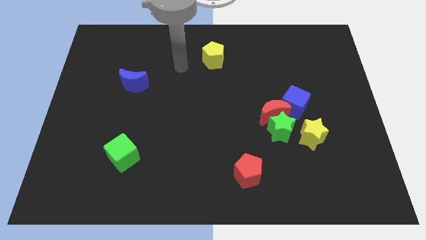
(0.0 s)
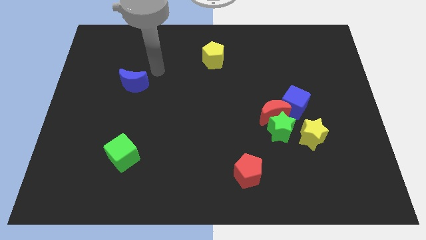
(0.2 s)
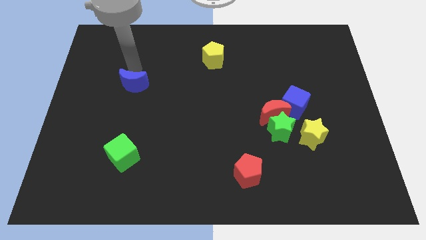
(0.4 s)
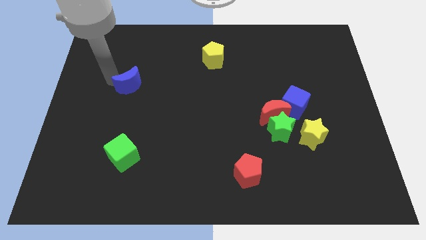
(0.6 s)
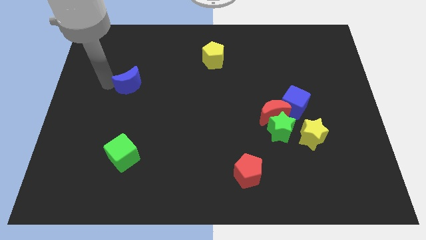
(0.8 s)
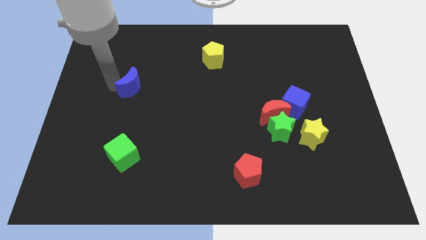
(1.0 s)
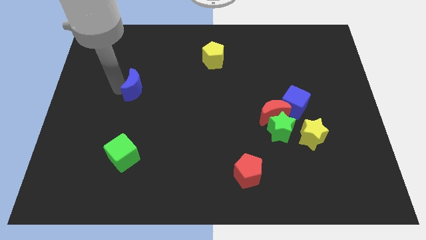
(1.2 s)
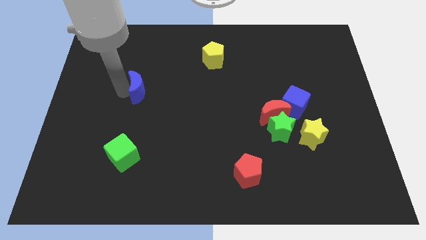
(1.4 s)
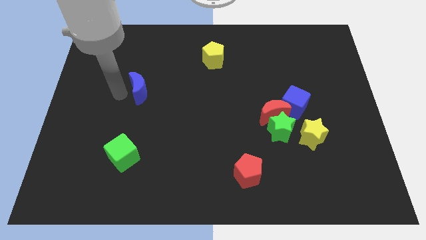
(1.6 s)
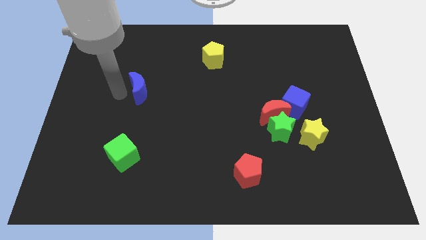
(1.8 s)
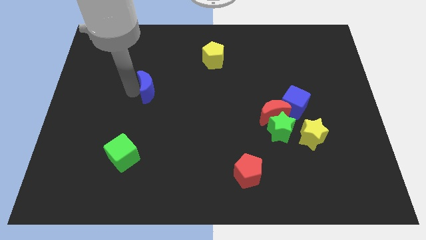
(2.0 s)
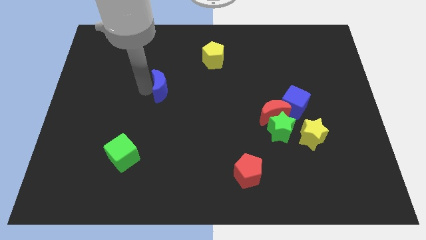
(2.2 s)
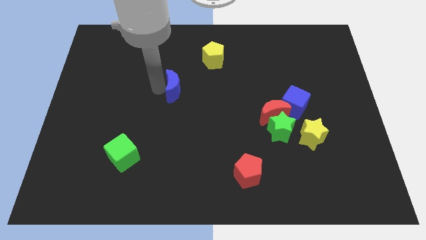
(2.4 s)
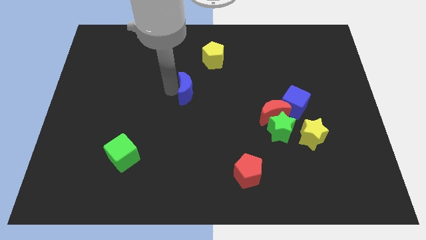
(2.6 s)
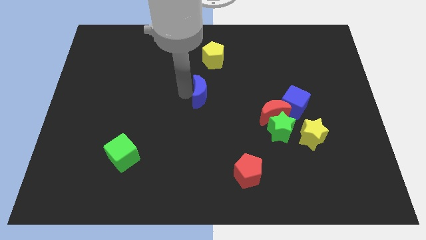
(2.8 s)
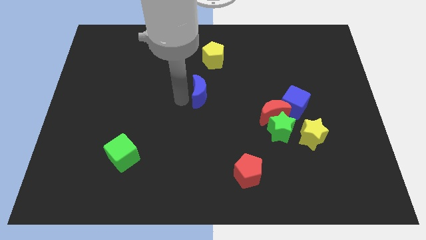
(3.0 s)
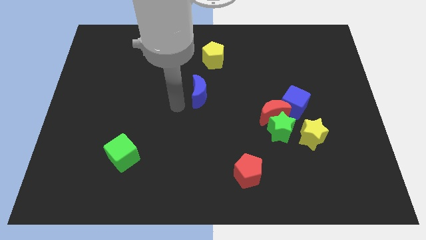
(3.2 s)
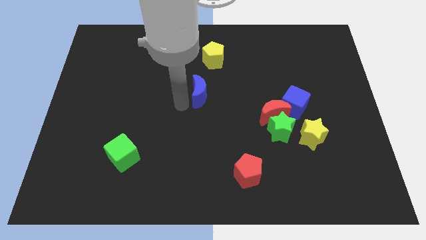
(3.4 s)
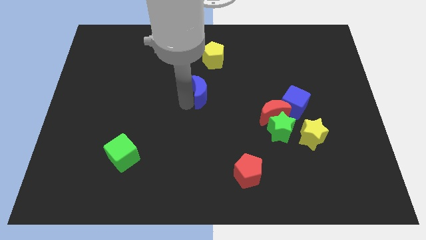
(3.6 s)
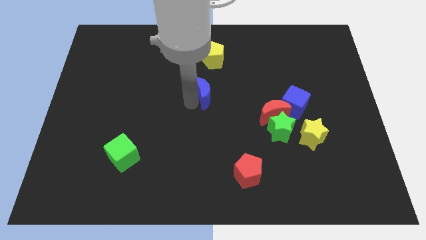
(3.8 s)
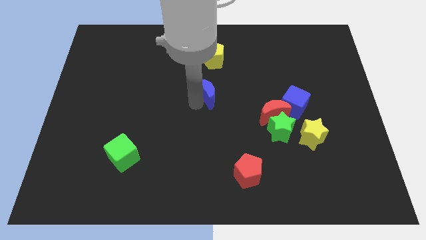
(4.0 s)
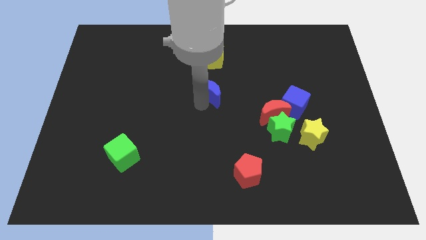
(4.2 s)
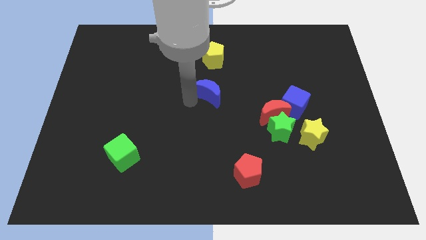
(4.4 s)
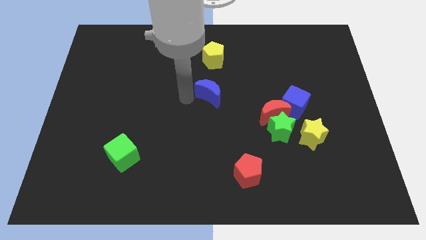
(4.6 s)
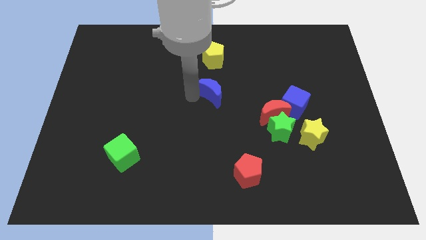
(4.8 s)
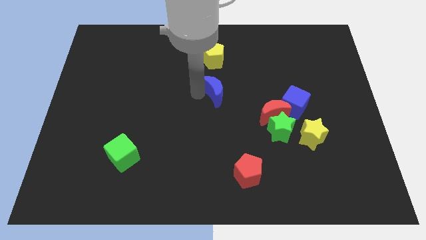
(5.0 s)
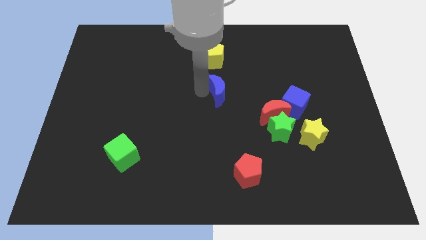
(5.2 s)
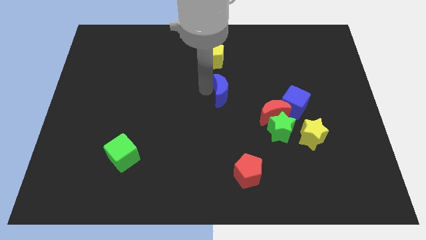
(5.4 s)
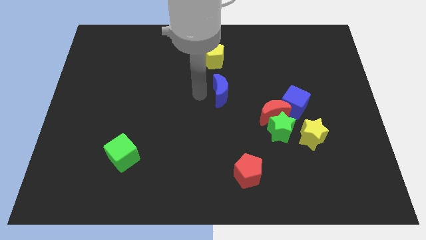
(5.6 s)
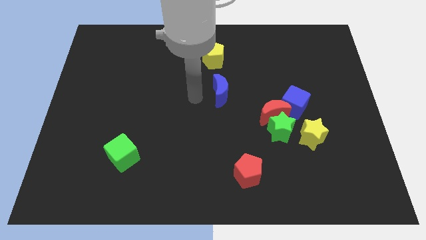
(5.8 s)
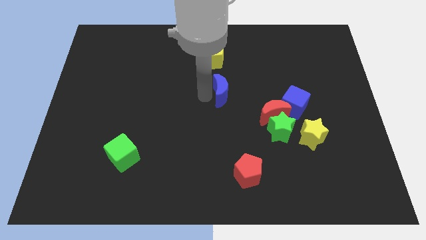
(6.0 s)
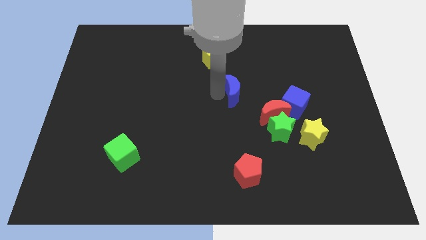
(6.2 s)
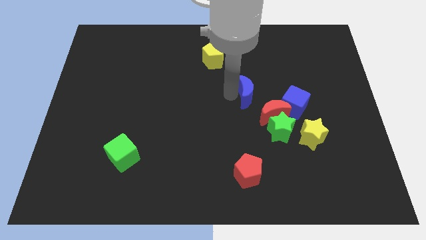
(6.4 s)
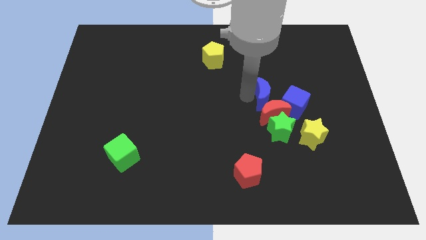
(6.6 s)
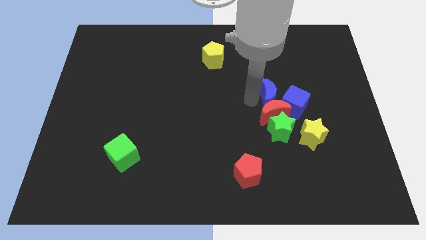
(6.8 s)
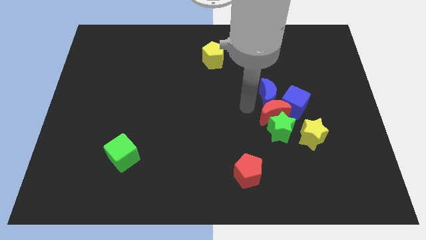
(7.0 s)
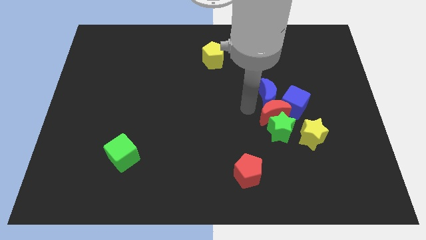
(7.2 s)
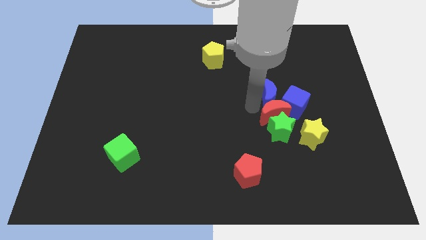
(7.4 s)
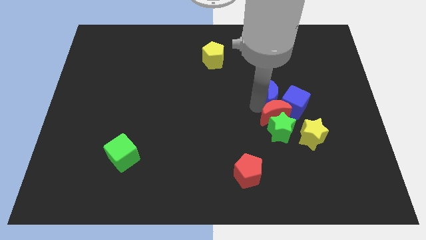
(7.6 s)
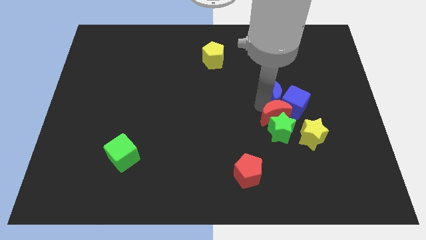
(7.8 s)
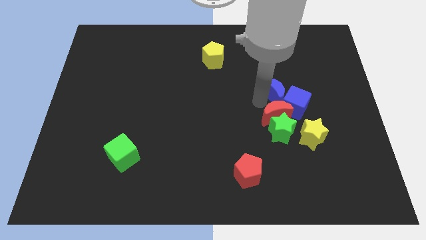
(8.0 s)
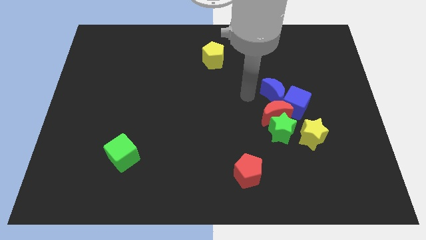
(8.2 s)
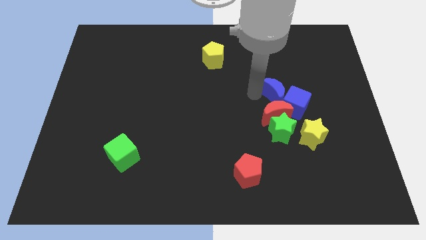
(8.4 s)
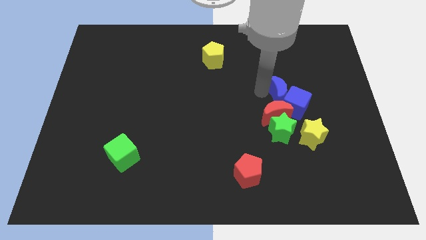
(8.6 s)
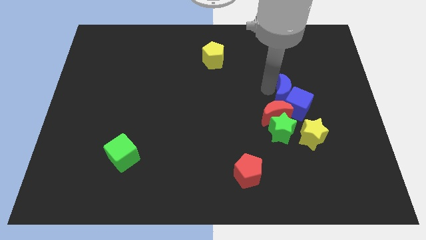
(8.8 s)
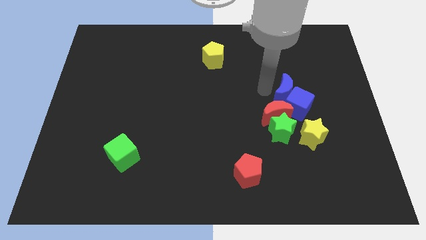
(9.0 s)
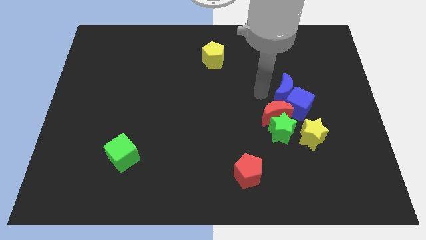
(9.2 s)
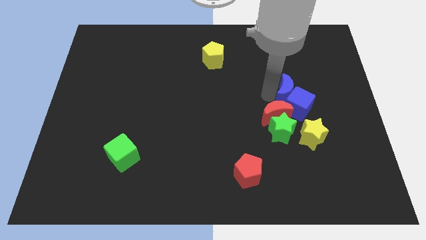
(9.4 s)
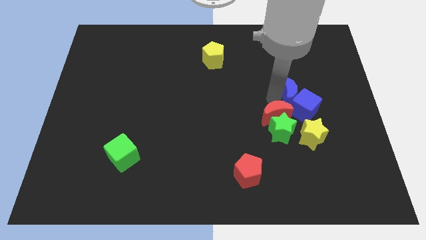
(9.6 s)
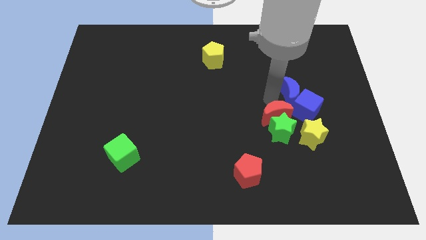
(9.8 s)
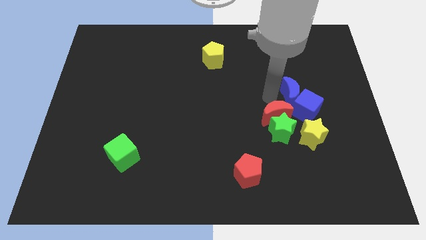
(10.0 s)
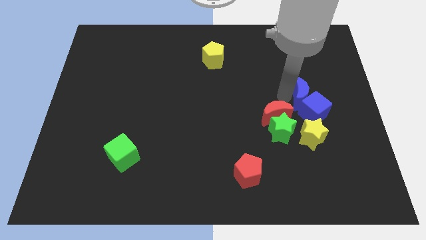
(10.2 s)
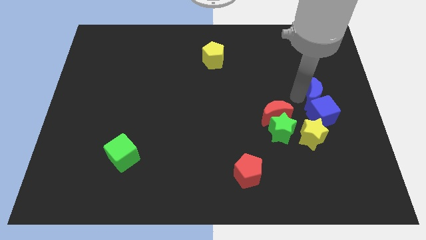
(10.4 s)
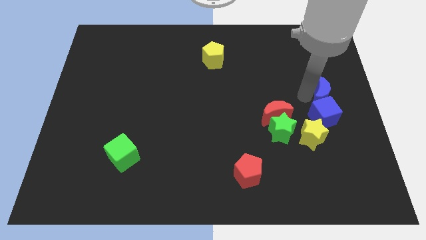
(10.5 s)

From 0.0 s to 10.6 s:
slide the blue moon to the right side of the board

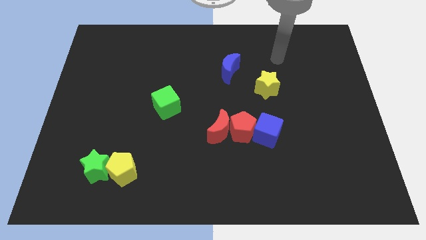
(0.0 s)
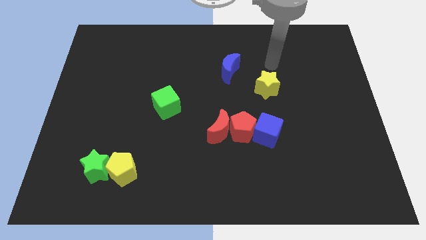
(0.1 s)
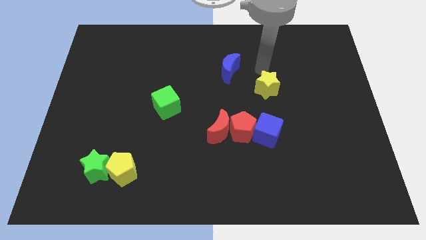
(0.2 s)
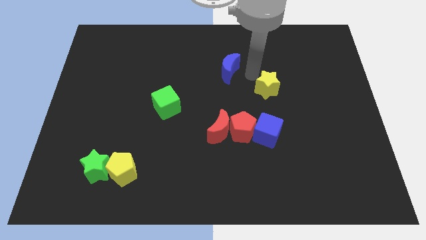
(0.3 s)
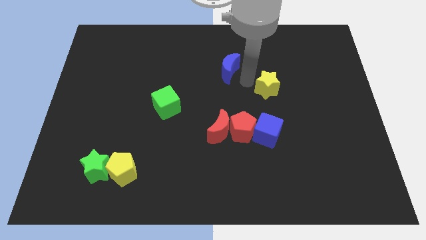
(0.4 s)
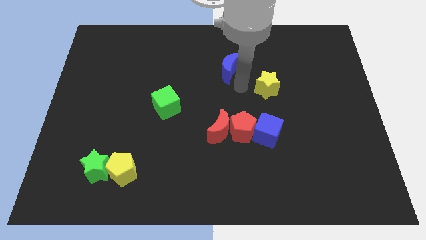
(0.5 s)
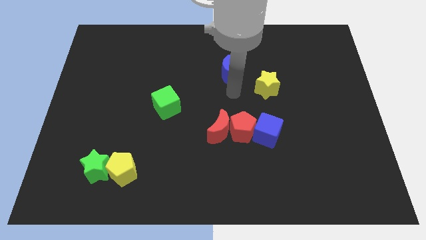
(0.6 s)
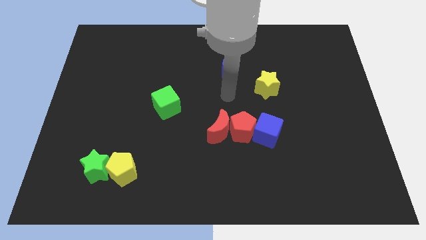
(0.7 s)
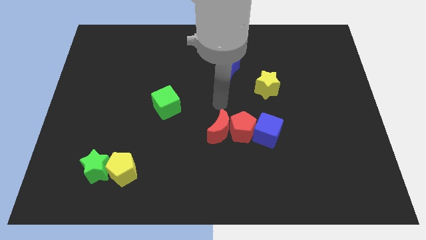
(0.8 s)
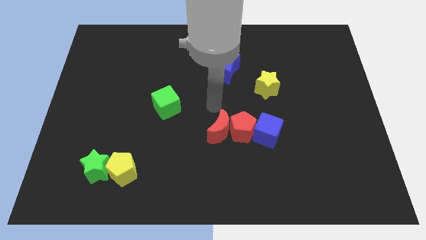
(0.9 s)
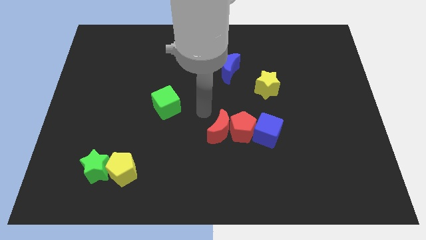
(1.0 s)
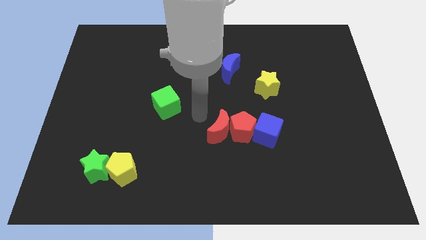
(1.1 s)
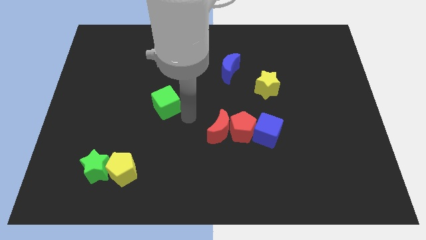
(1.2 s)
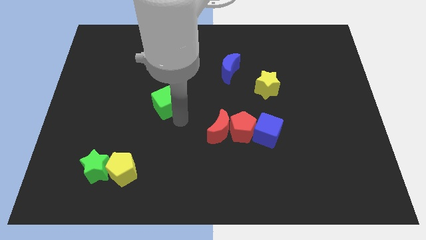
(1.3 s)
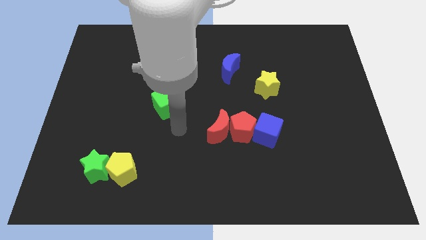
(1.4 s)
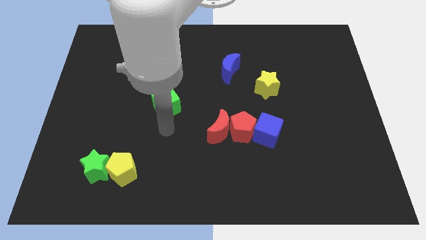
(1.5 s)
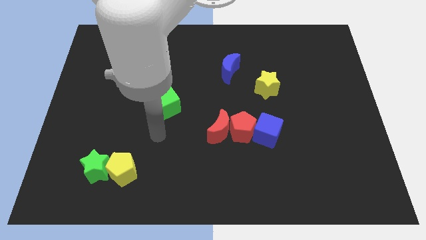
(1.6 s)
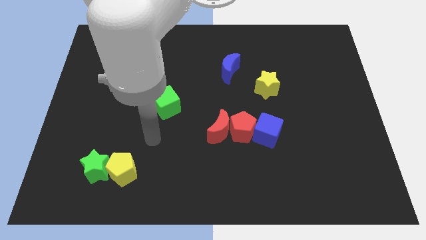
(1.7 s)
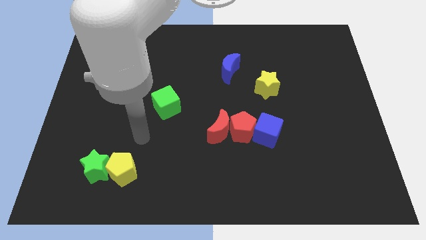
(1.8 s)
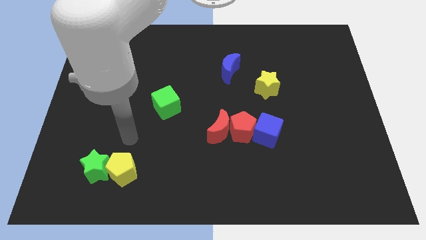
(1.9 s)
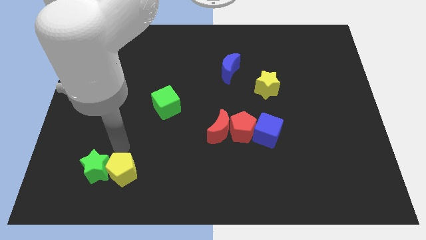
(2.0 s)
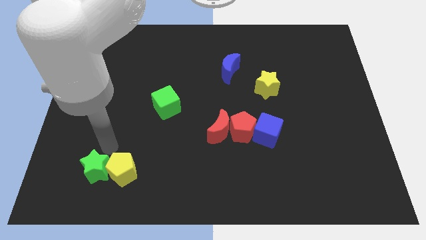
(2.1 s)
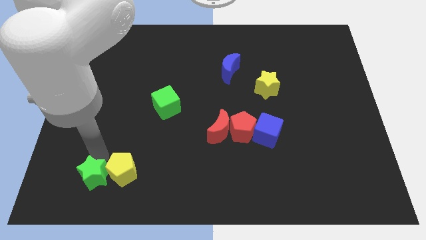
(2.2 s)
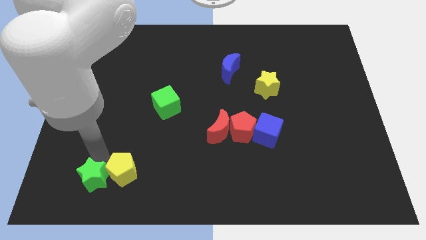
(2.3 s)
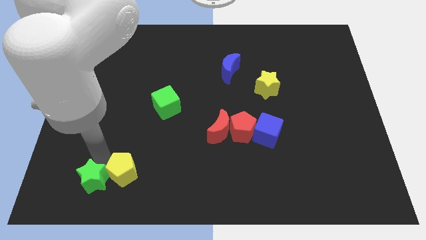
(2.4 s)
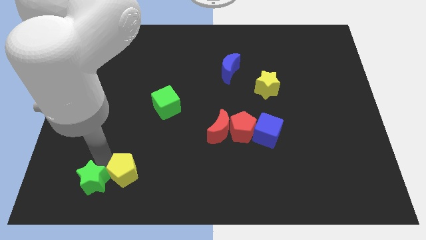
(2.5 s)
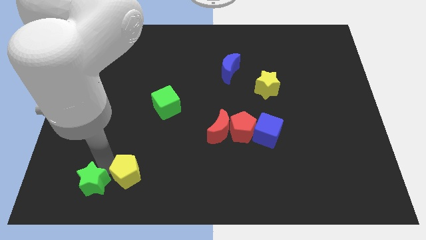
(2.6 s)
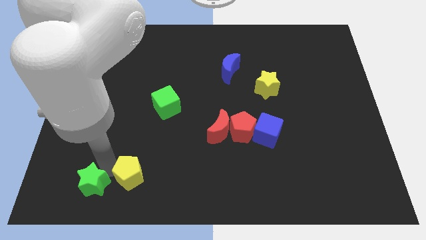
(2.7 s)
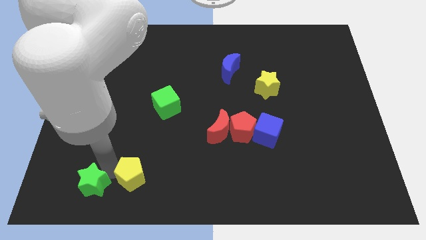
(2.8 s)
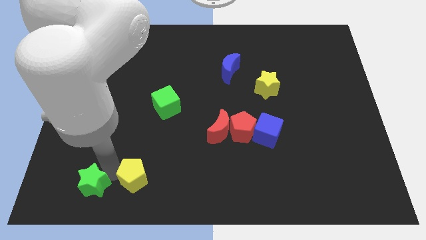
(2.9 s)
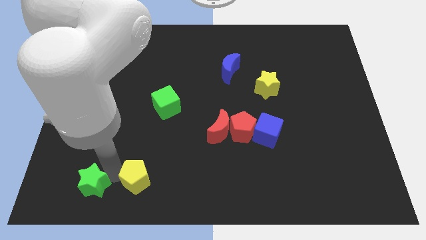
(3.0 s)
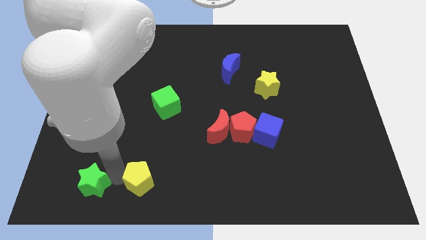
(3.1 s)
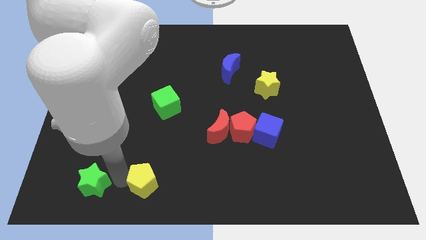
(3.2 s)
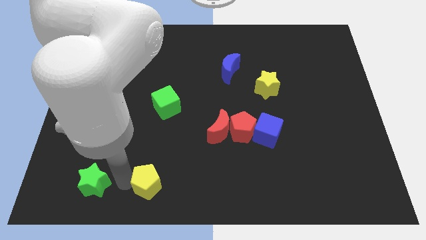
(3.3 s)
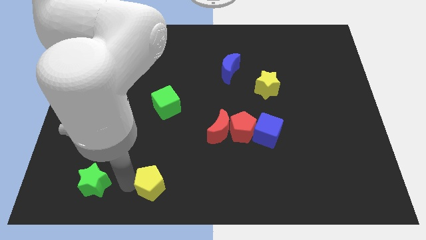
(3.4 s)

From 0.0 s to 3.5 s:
push the yellow pentagon to the bottom side
